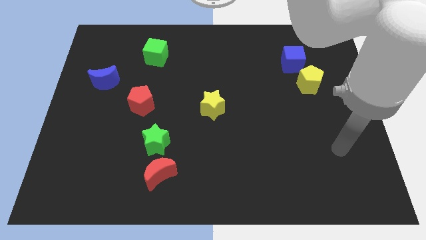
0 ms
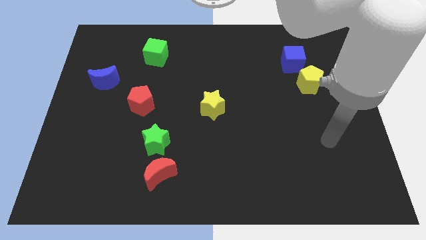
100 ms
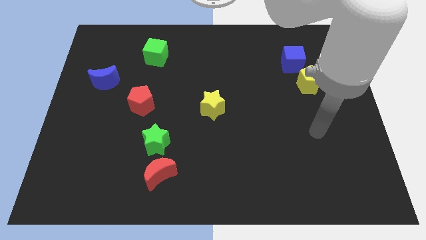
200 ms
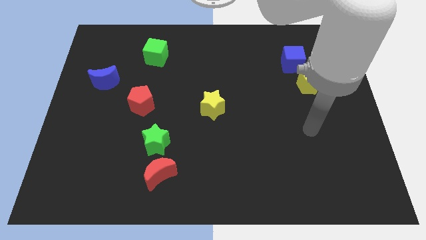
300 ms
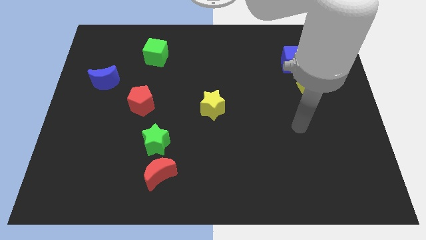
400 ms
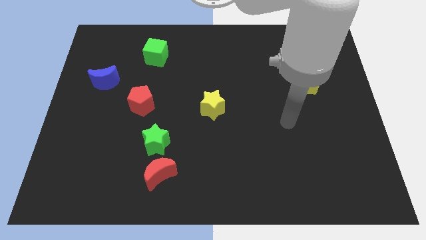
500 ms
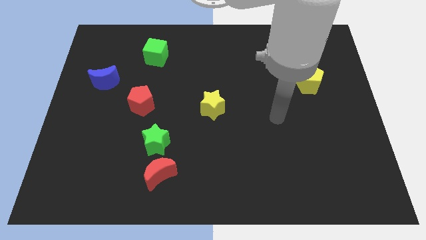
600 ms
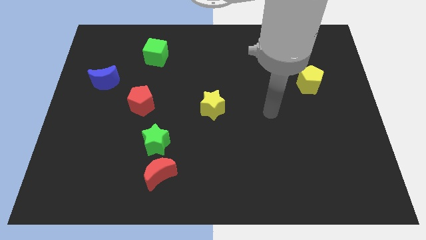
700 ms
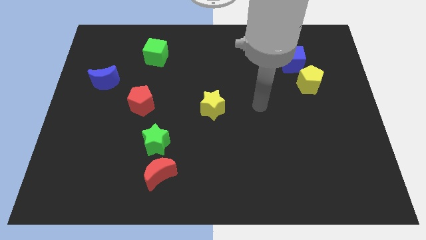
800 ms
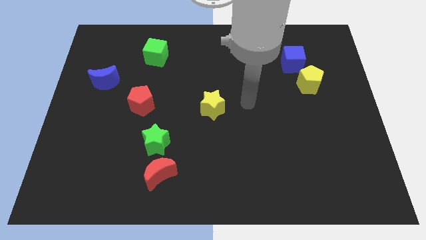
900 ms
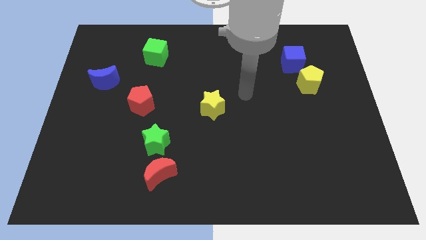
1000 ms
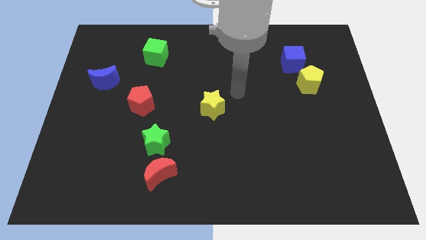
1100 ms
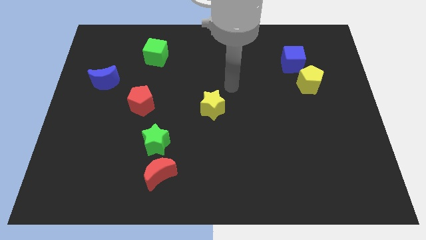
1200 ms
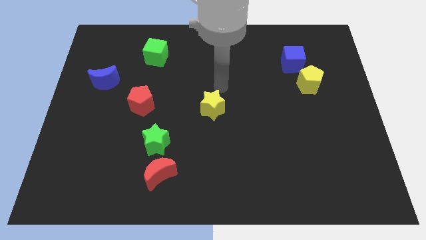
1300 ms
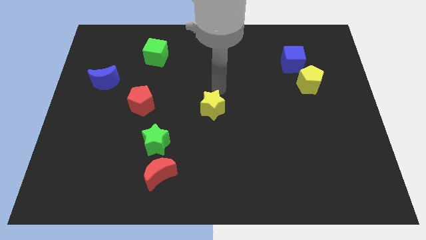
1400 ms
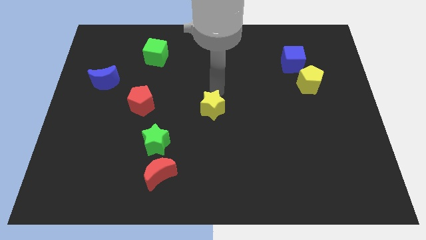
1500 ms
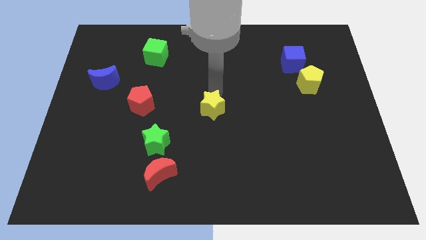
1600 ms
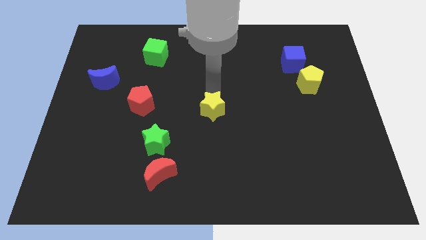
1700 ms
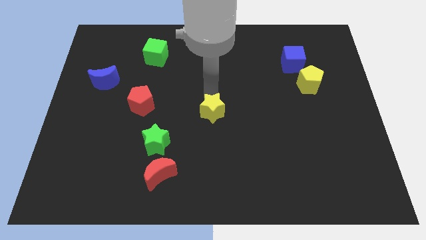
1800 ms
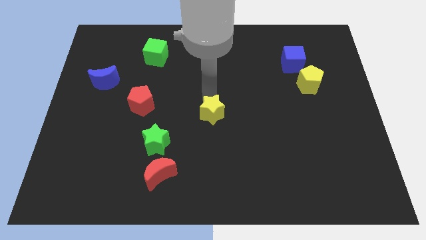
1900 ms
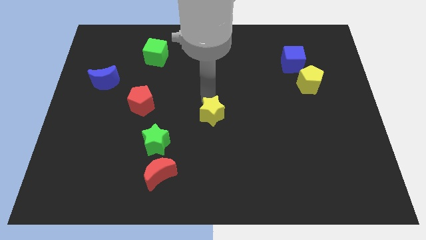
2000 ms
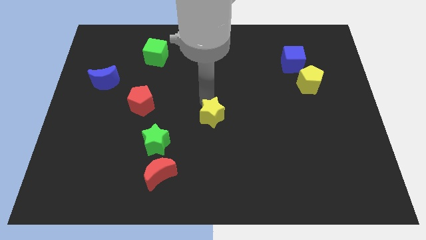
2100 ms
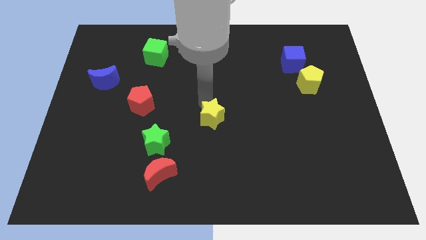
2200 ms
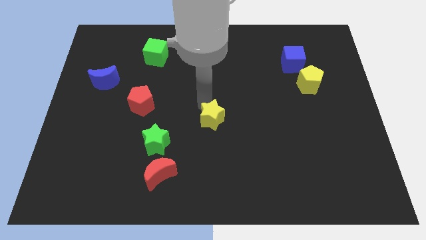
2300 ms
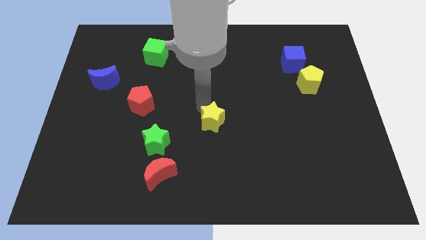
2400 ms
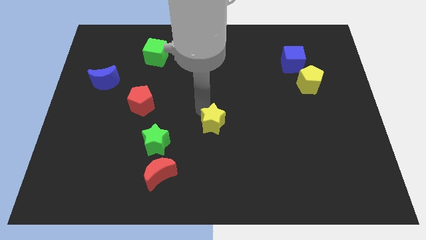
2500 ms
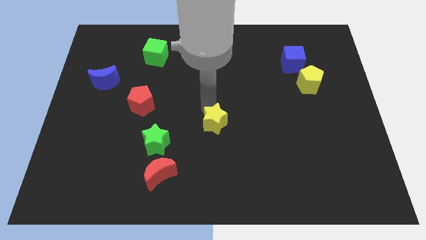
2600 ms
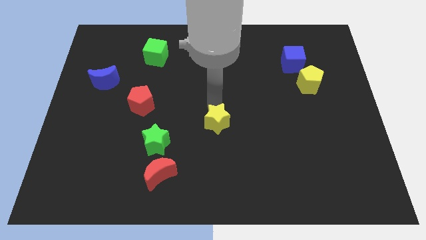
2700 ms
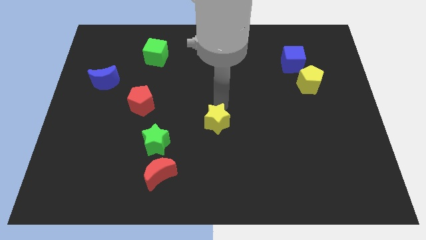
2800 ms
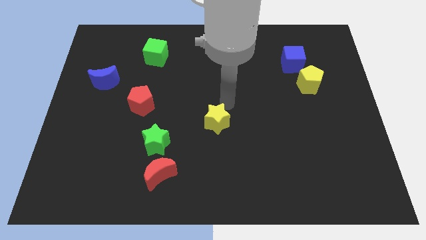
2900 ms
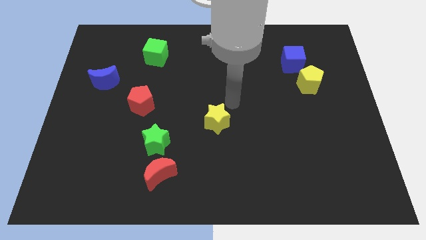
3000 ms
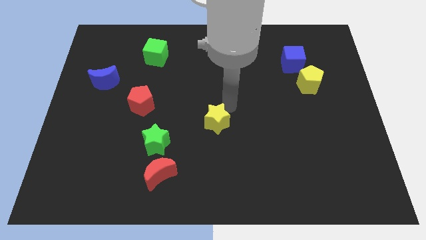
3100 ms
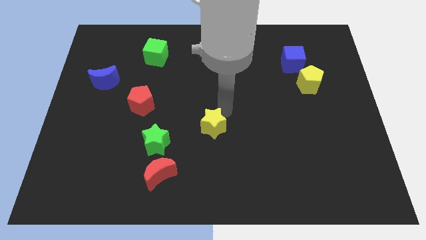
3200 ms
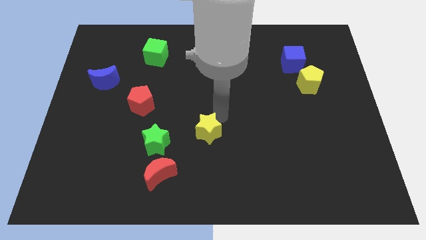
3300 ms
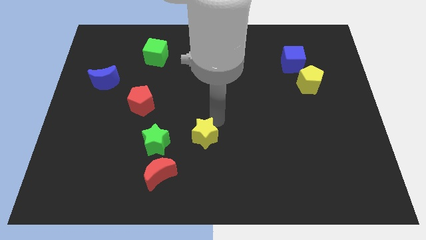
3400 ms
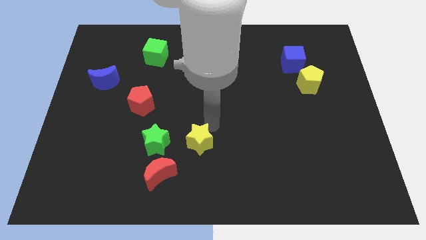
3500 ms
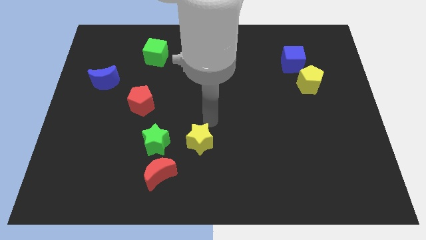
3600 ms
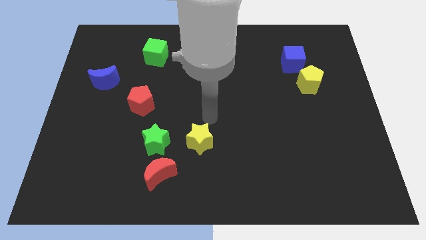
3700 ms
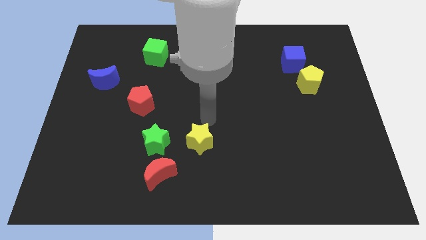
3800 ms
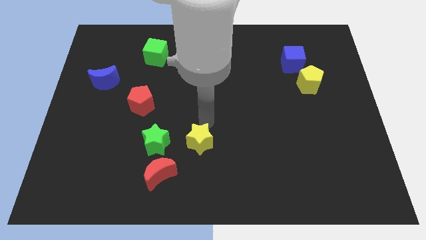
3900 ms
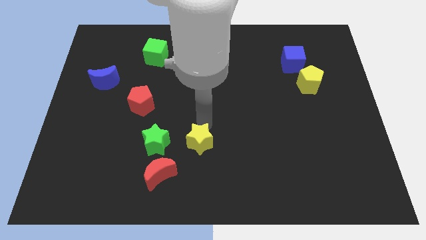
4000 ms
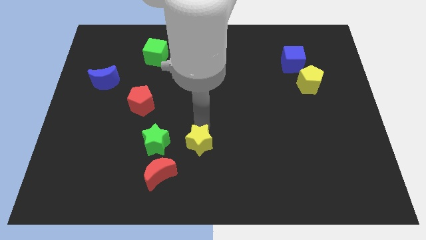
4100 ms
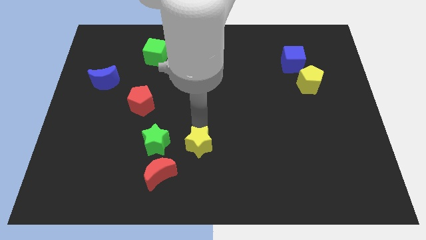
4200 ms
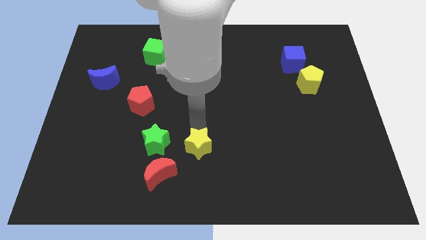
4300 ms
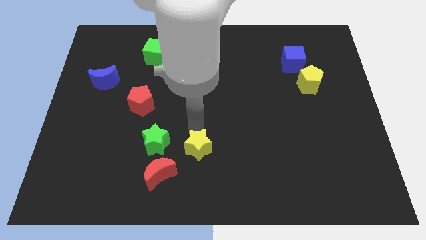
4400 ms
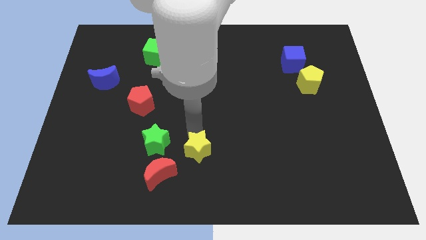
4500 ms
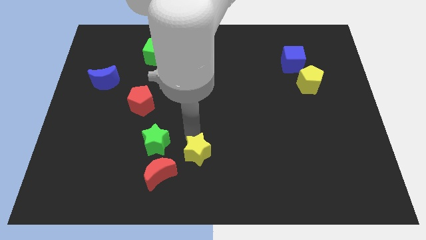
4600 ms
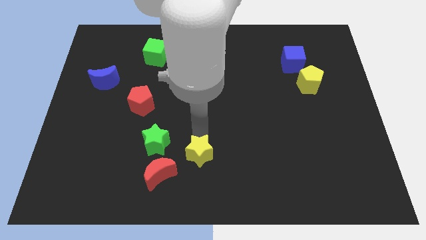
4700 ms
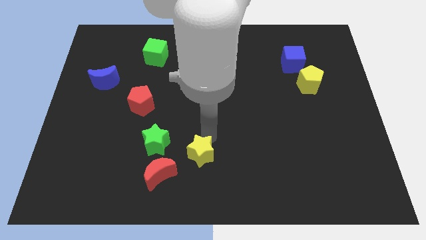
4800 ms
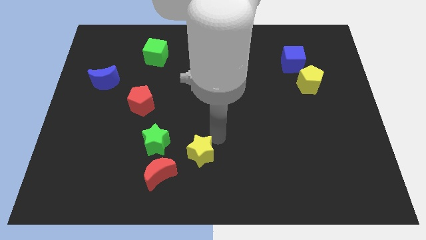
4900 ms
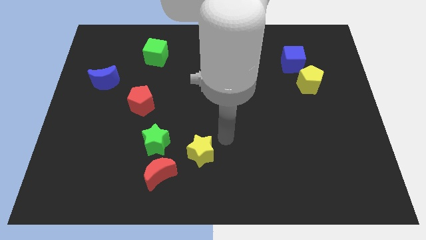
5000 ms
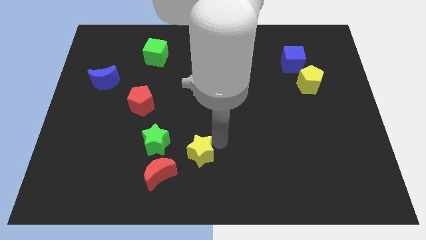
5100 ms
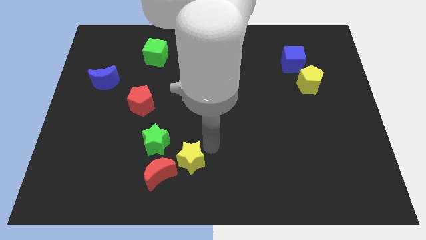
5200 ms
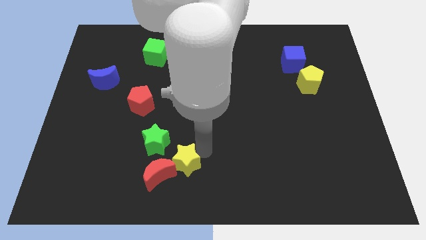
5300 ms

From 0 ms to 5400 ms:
push the yellow star close to the red moon

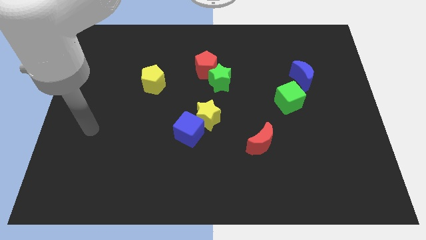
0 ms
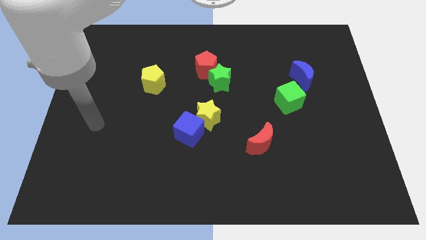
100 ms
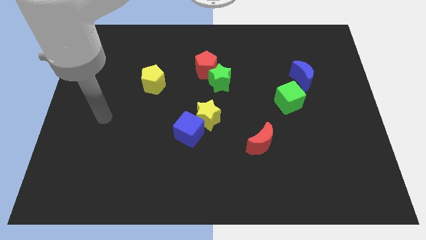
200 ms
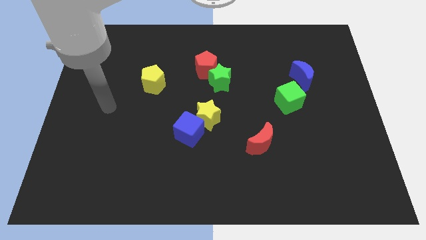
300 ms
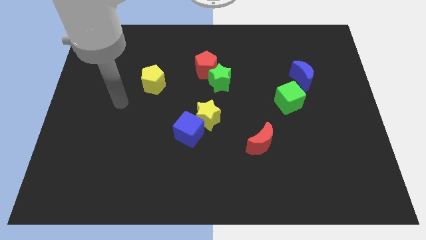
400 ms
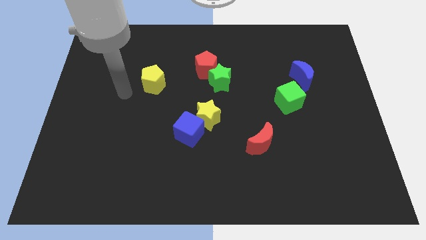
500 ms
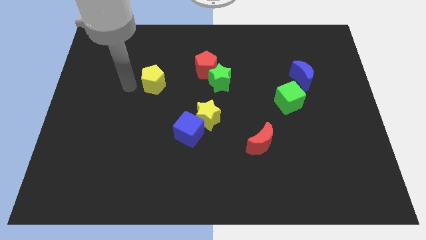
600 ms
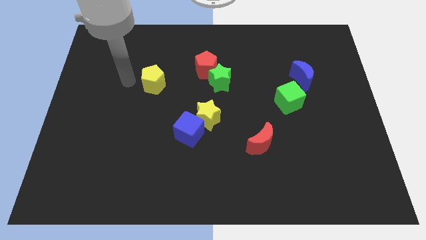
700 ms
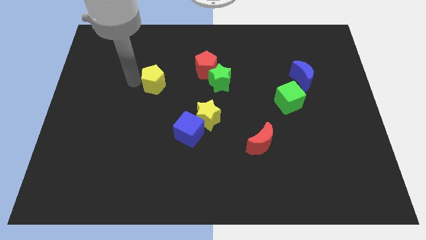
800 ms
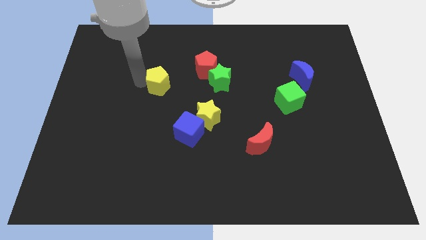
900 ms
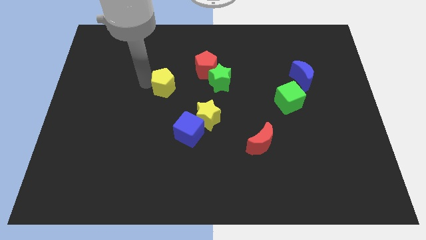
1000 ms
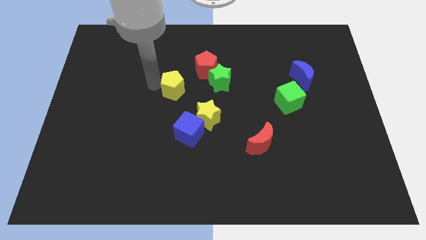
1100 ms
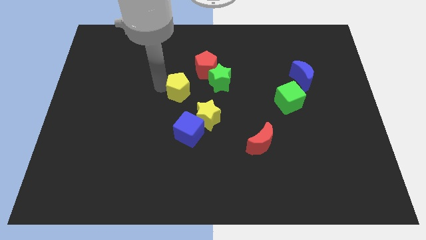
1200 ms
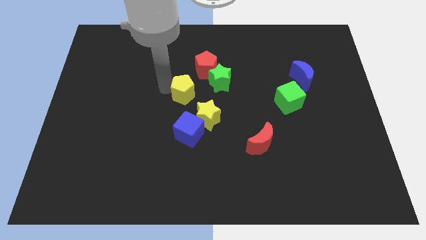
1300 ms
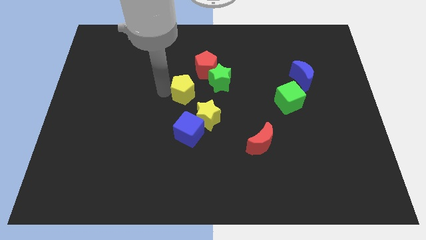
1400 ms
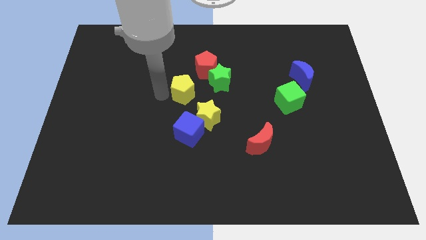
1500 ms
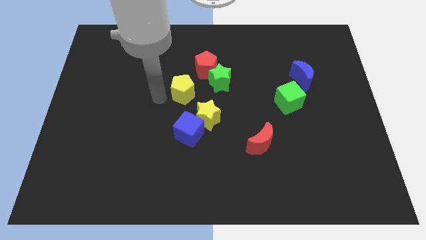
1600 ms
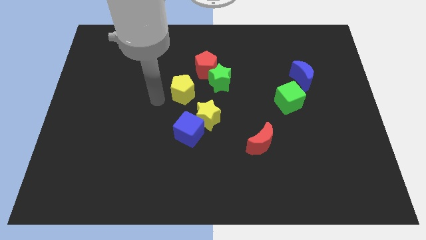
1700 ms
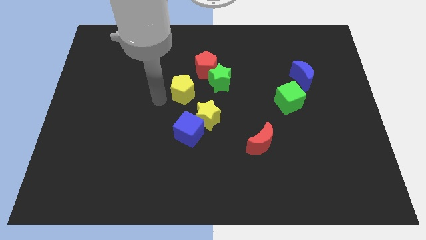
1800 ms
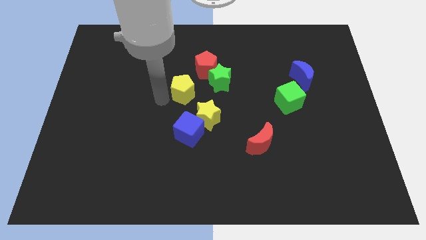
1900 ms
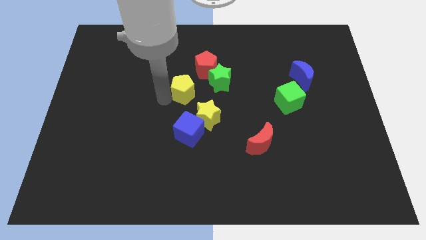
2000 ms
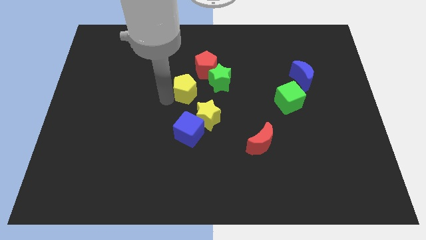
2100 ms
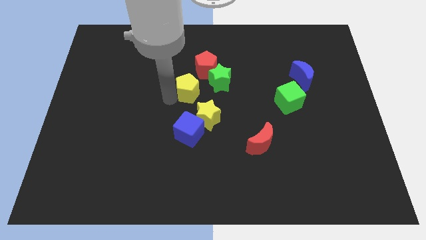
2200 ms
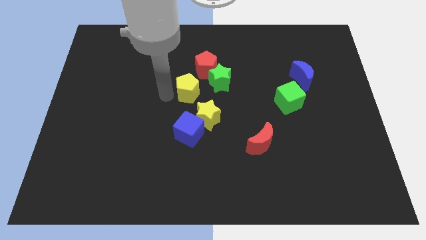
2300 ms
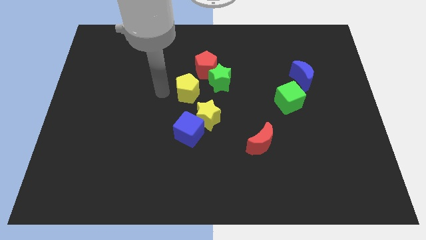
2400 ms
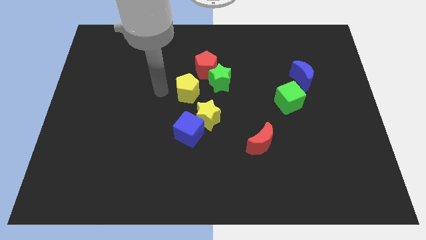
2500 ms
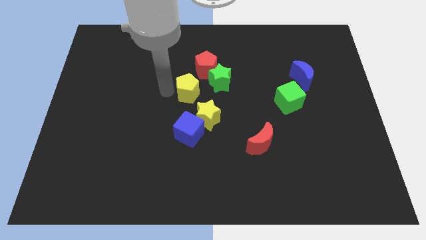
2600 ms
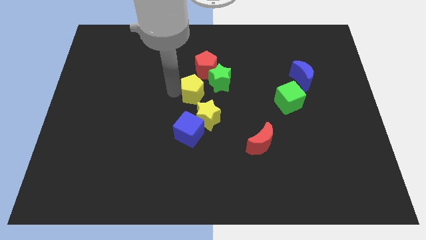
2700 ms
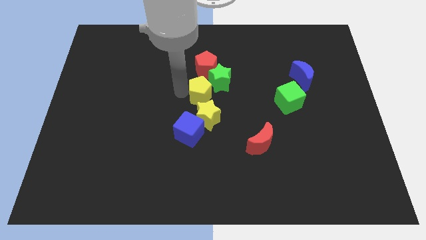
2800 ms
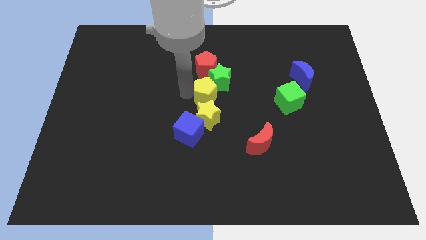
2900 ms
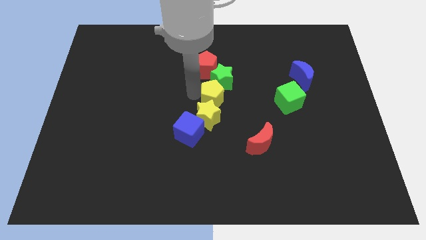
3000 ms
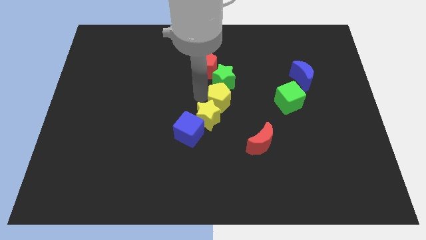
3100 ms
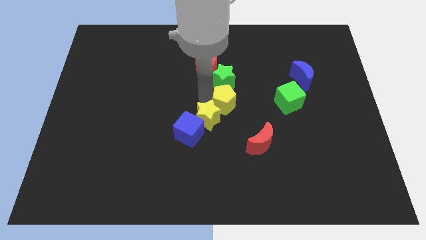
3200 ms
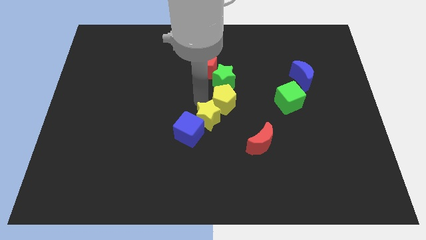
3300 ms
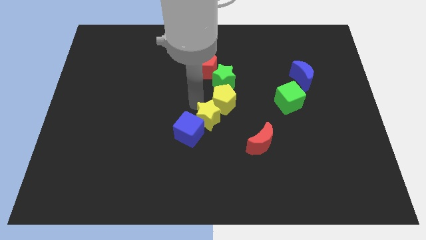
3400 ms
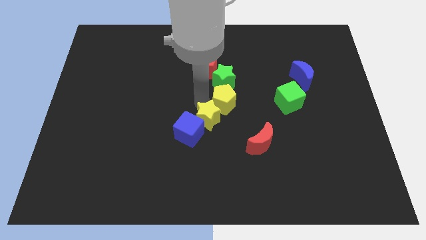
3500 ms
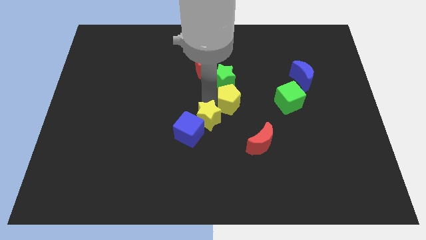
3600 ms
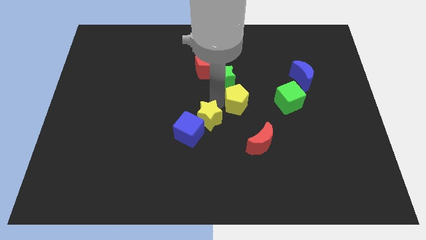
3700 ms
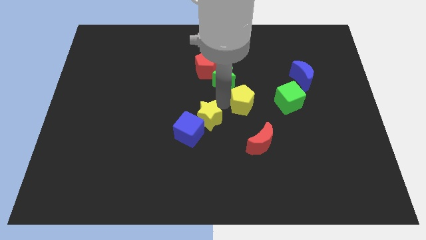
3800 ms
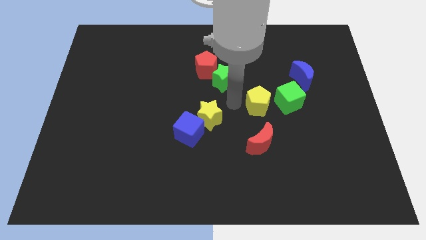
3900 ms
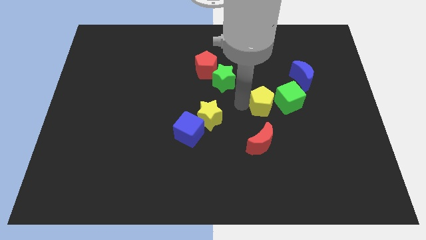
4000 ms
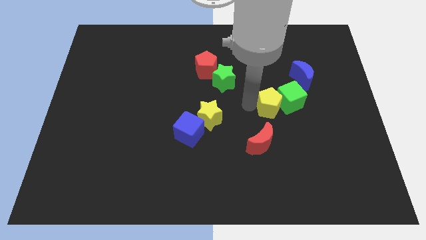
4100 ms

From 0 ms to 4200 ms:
push the yellow pentagon close to the green cube
